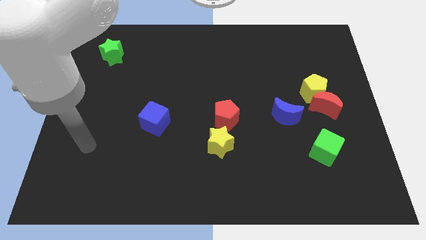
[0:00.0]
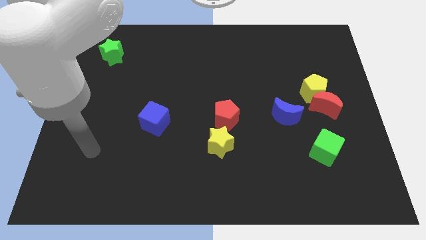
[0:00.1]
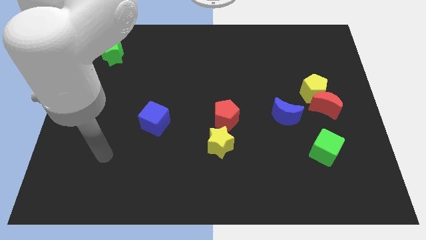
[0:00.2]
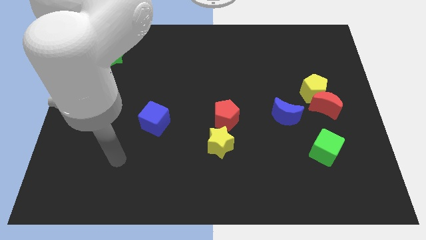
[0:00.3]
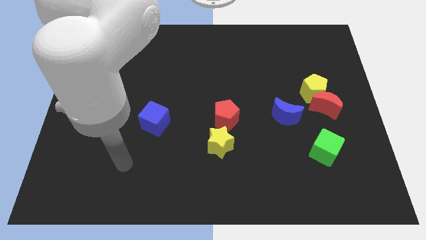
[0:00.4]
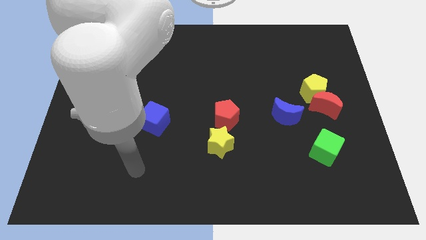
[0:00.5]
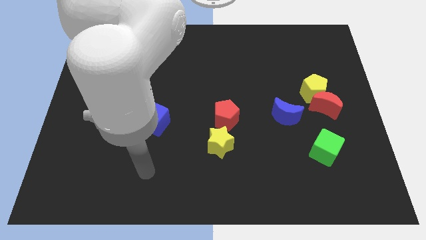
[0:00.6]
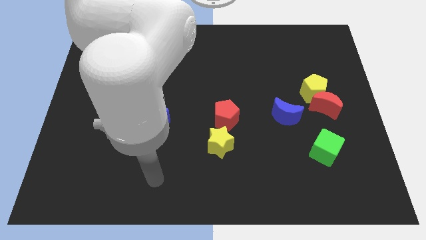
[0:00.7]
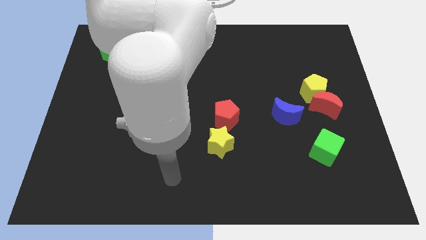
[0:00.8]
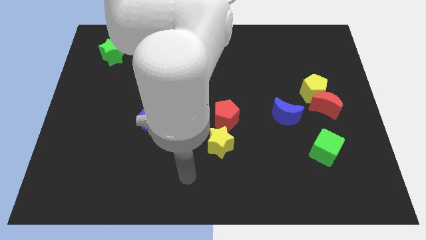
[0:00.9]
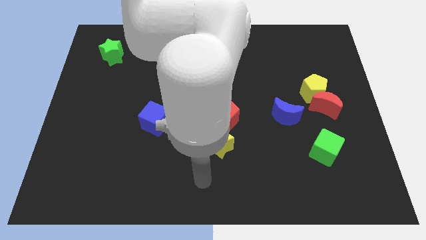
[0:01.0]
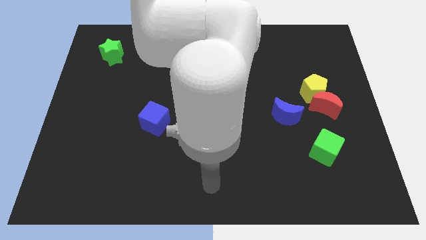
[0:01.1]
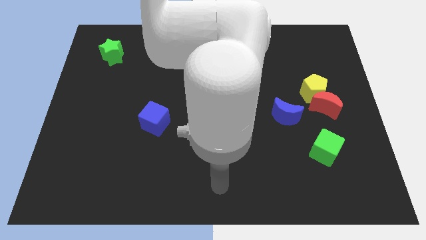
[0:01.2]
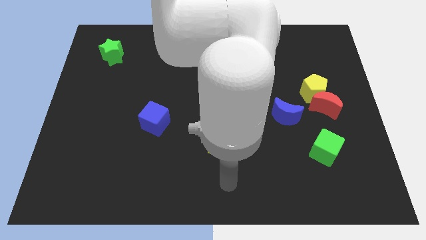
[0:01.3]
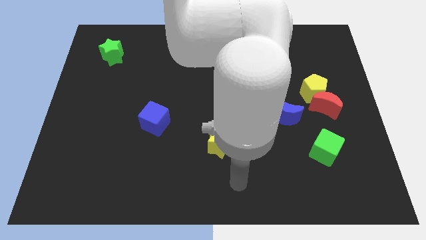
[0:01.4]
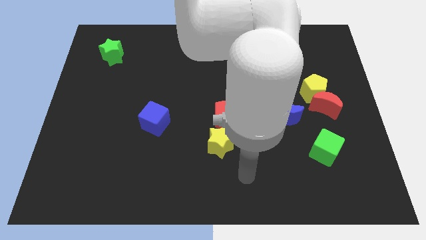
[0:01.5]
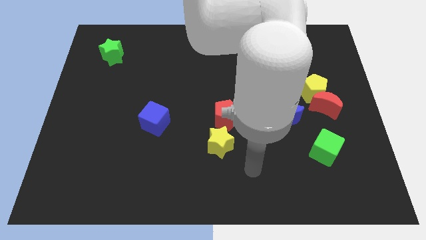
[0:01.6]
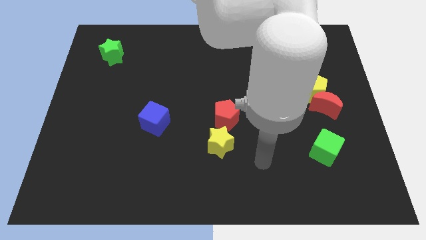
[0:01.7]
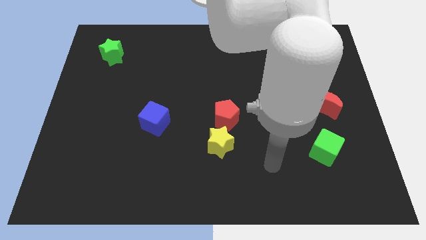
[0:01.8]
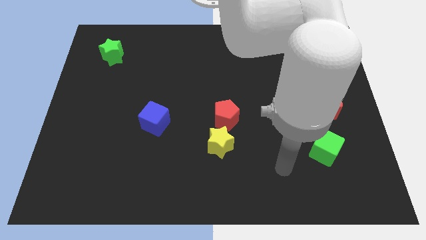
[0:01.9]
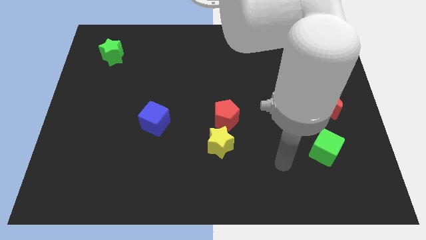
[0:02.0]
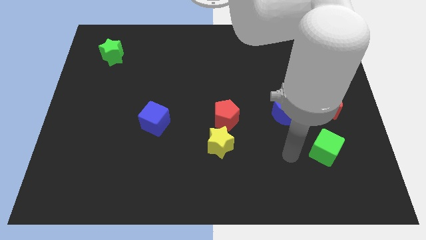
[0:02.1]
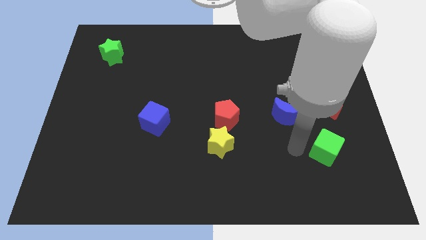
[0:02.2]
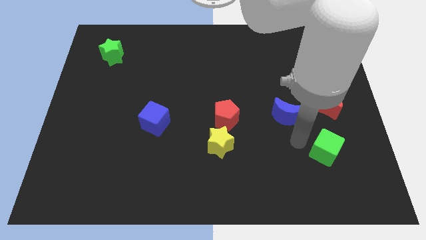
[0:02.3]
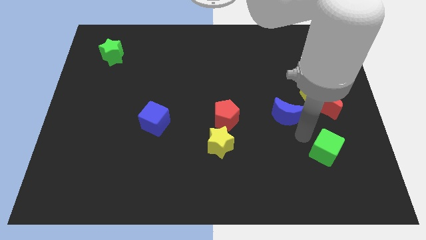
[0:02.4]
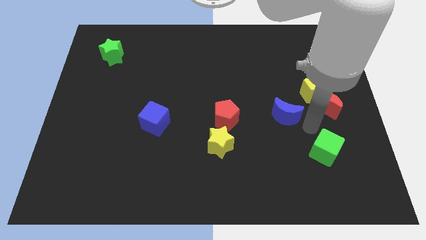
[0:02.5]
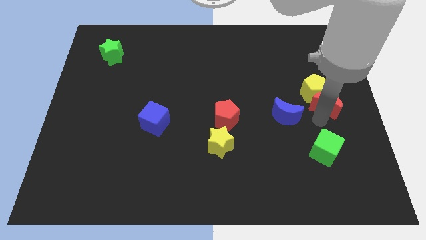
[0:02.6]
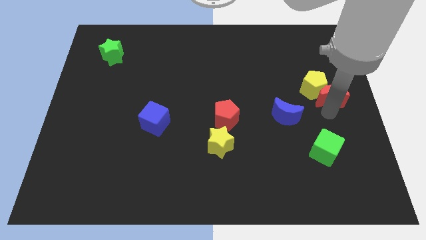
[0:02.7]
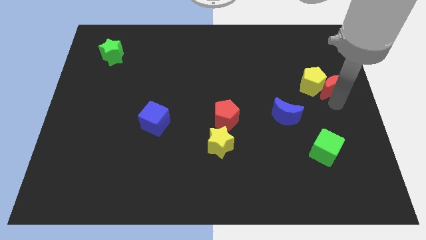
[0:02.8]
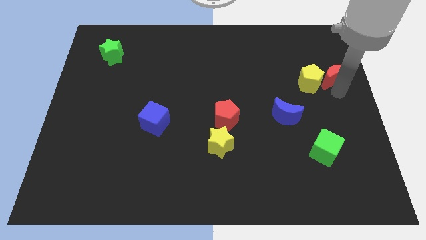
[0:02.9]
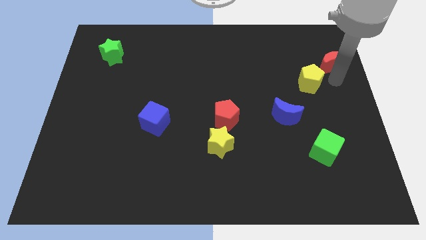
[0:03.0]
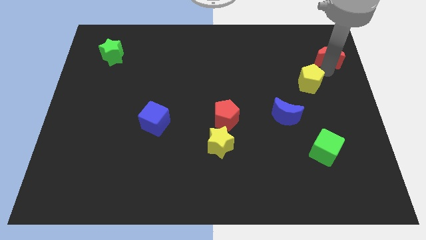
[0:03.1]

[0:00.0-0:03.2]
separate the yellow pentagon from the red moon

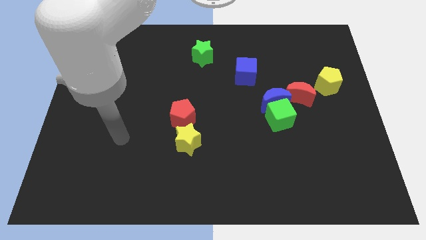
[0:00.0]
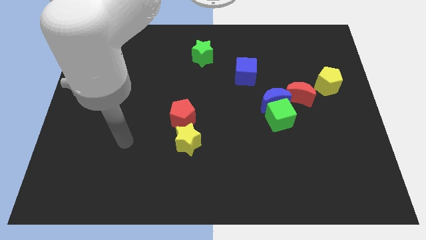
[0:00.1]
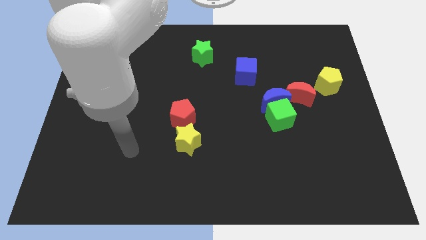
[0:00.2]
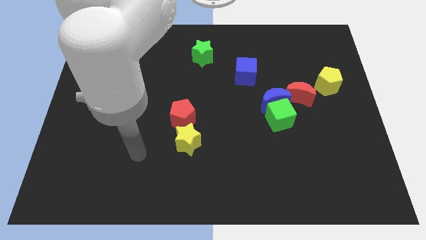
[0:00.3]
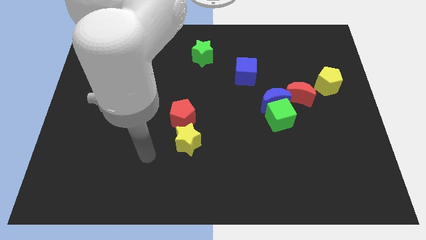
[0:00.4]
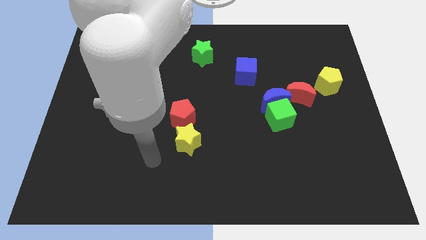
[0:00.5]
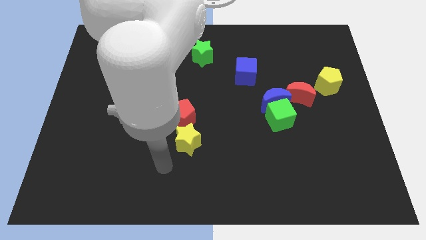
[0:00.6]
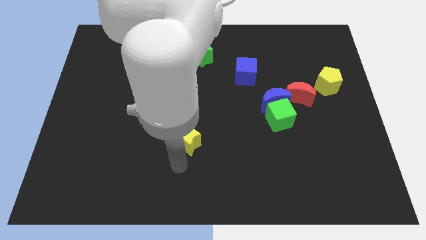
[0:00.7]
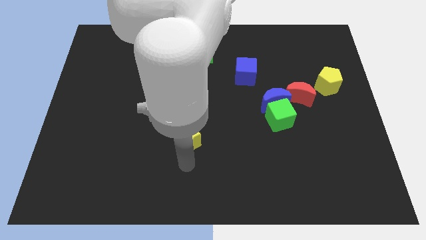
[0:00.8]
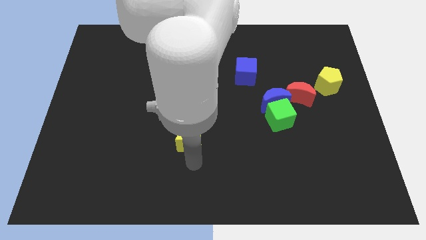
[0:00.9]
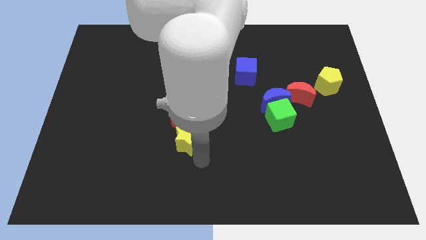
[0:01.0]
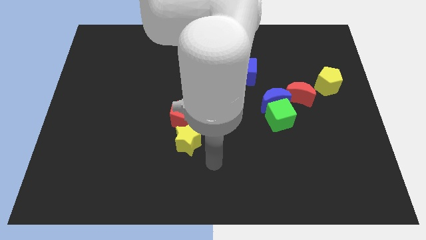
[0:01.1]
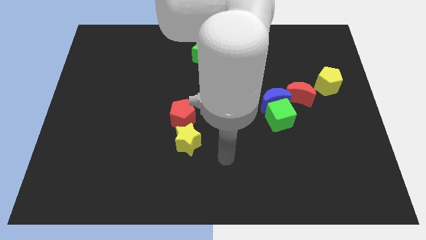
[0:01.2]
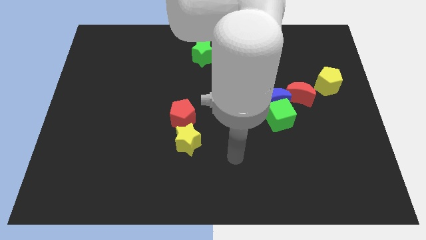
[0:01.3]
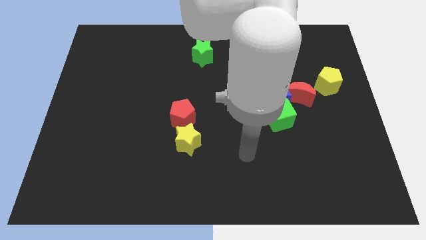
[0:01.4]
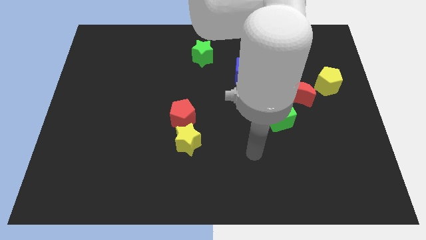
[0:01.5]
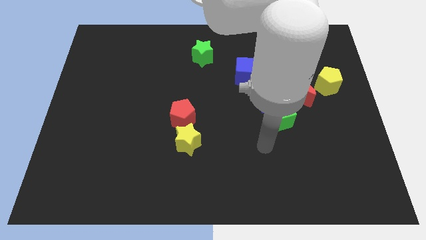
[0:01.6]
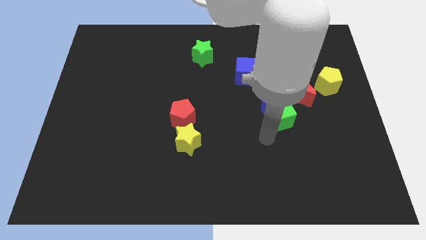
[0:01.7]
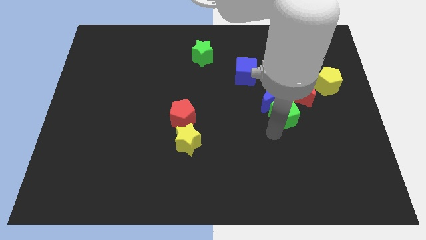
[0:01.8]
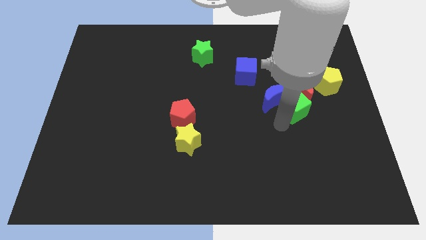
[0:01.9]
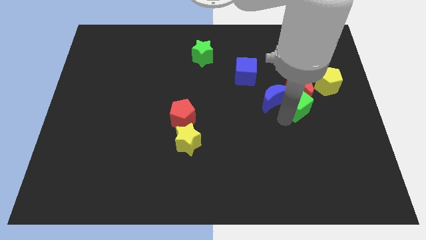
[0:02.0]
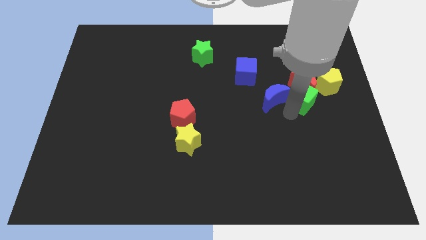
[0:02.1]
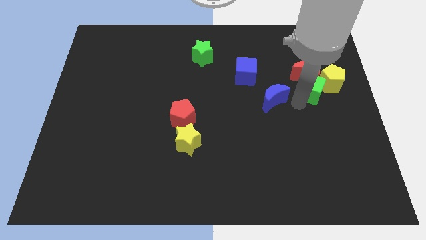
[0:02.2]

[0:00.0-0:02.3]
pull the blue moon apart from the green cube and red moon

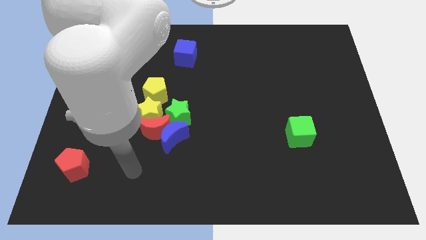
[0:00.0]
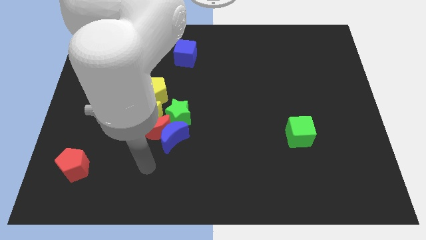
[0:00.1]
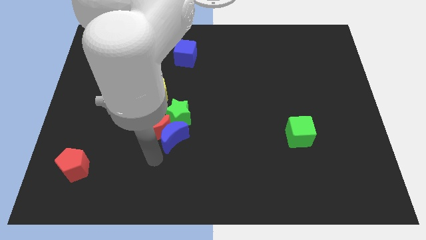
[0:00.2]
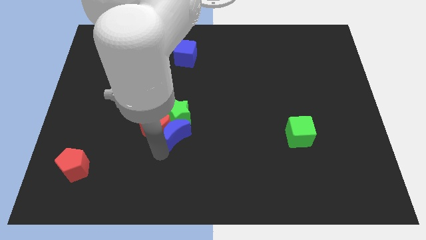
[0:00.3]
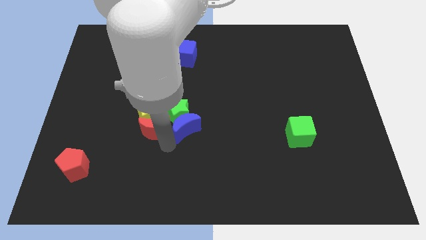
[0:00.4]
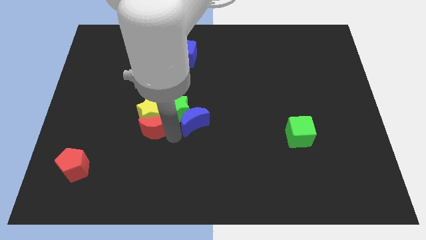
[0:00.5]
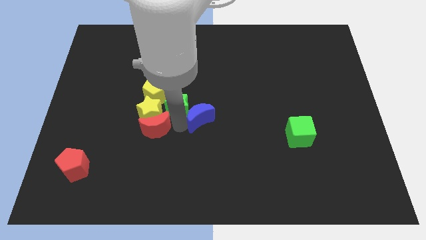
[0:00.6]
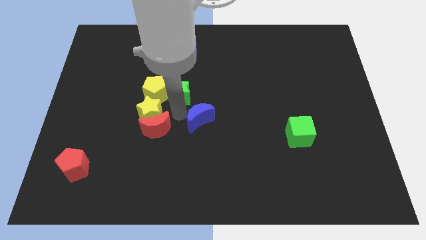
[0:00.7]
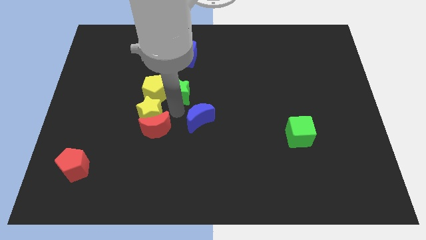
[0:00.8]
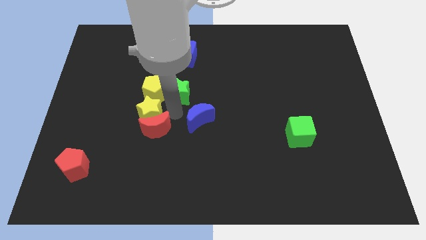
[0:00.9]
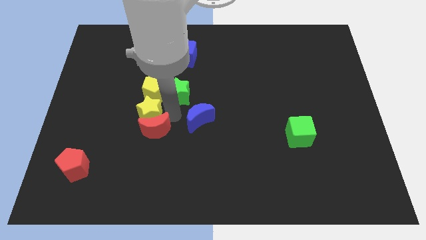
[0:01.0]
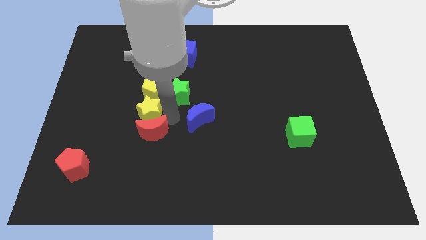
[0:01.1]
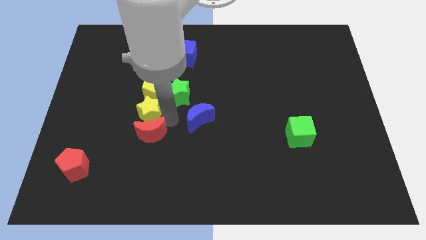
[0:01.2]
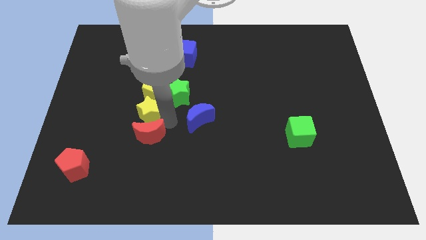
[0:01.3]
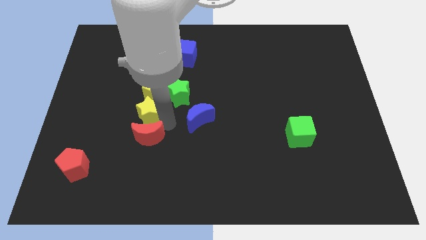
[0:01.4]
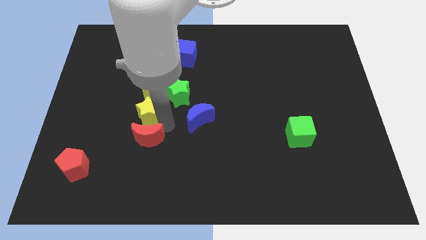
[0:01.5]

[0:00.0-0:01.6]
pull the red moon apart from the blue moon, yellow star, and green star

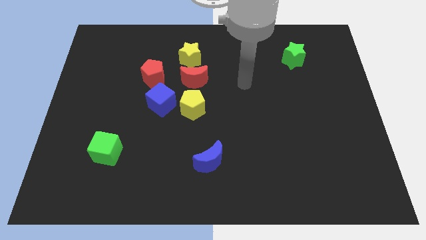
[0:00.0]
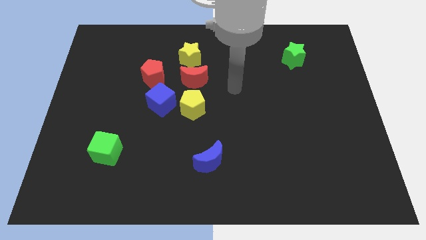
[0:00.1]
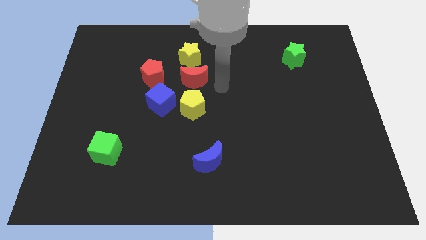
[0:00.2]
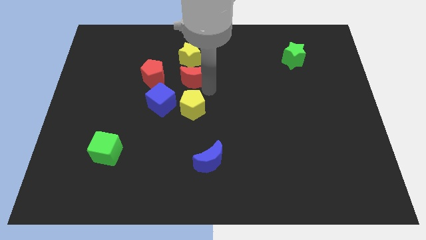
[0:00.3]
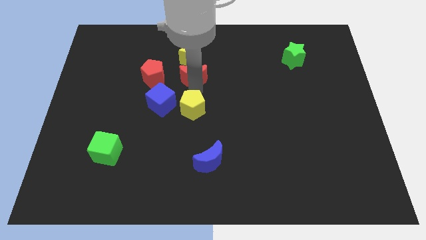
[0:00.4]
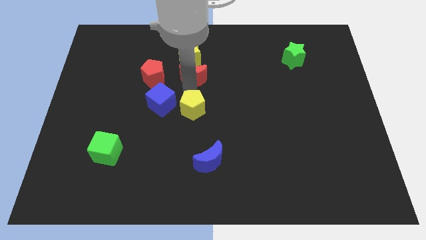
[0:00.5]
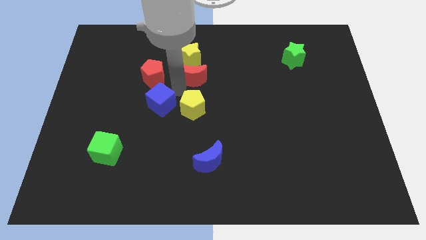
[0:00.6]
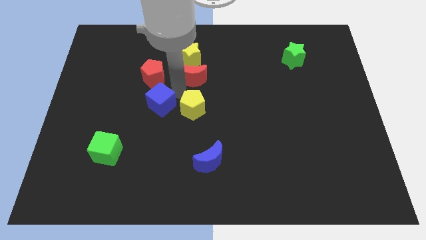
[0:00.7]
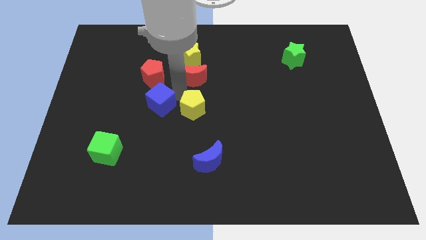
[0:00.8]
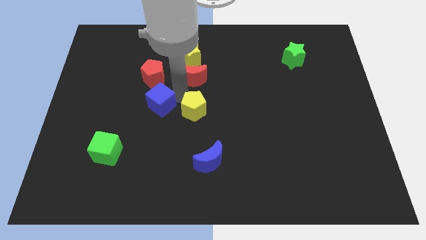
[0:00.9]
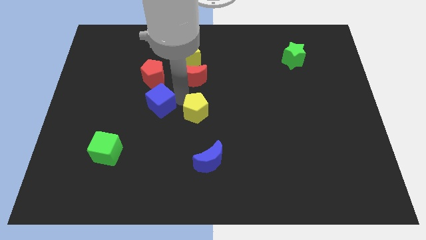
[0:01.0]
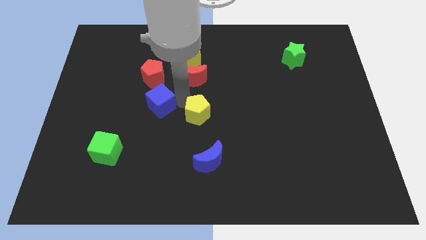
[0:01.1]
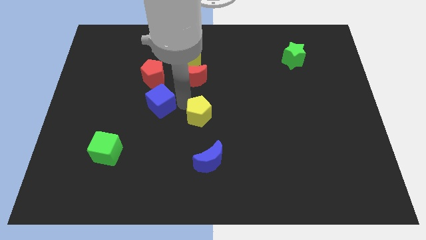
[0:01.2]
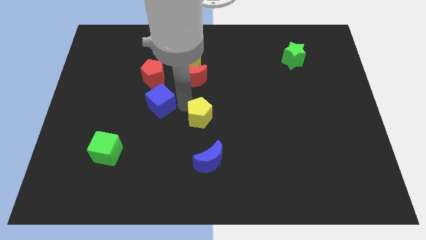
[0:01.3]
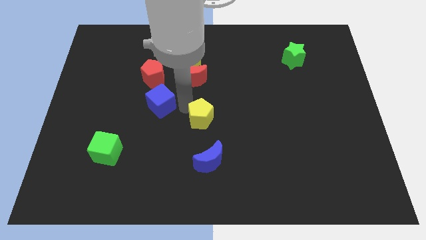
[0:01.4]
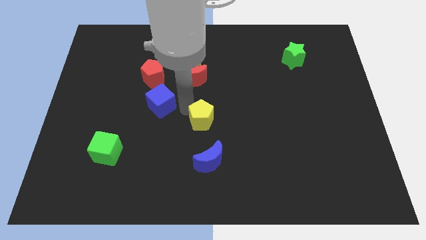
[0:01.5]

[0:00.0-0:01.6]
separate the yellow pentagon from the blue cube and red moon

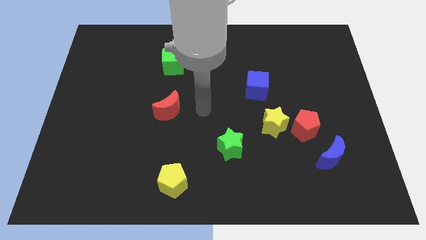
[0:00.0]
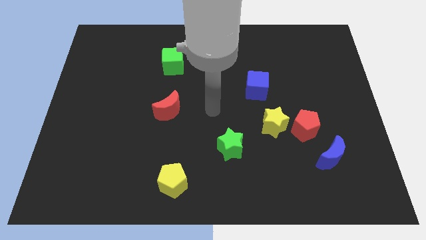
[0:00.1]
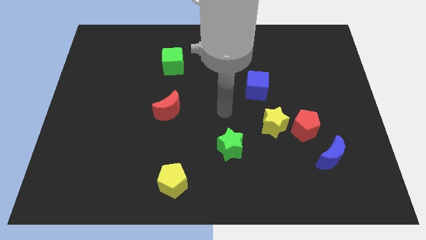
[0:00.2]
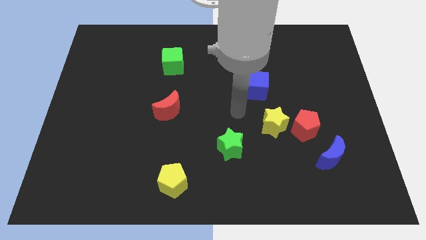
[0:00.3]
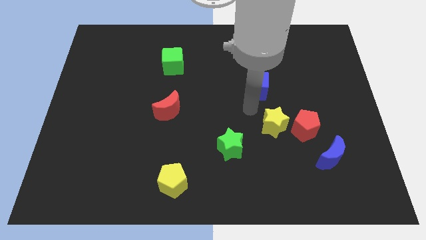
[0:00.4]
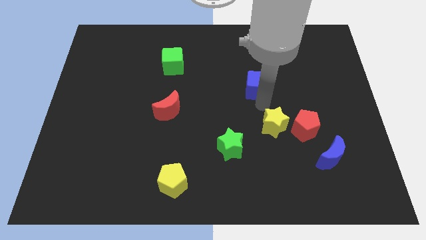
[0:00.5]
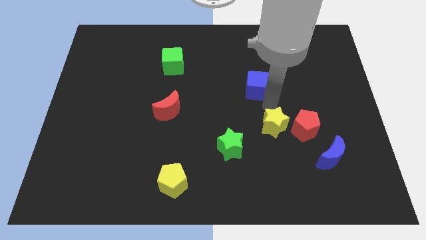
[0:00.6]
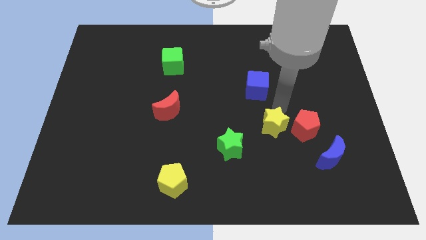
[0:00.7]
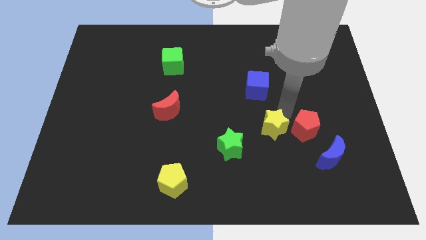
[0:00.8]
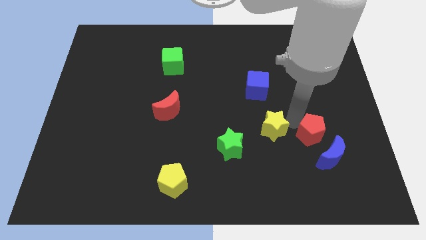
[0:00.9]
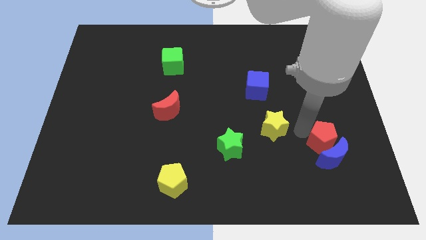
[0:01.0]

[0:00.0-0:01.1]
move the yellow star away from the red pentagon
